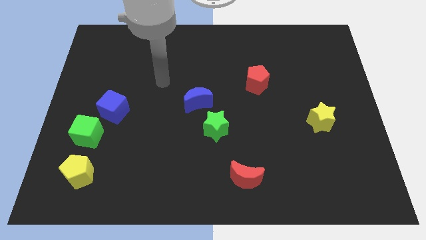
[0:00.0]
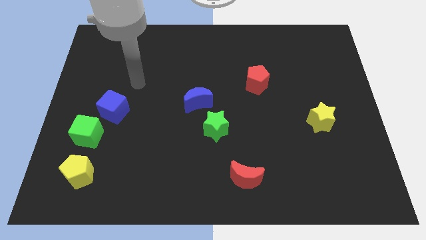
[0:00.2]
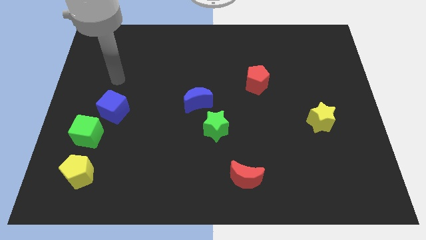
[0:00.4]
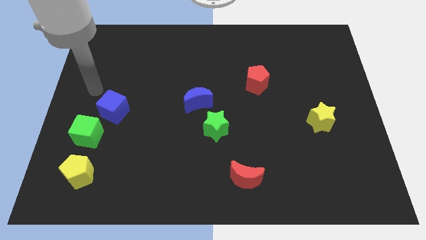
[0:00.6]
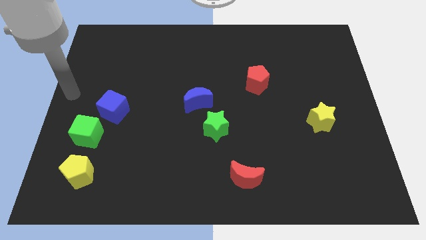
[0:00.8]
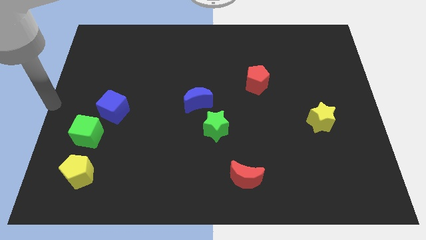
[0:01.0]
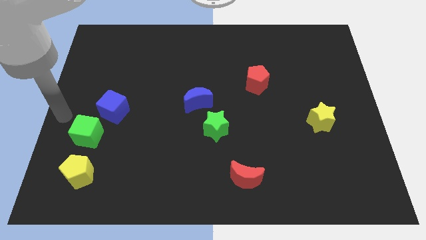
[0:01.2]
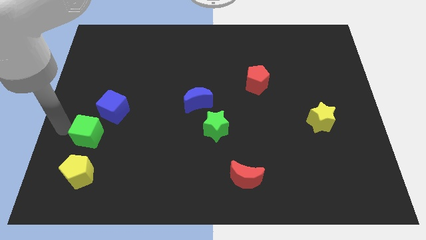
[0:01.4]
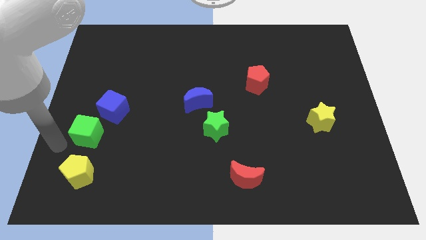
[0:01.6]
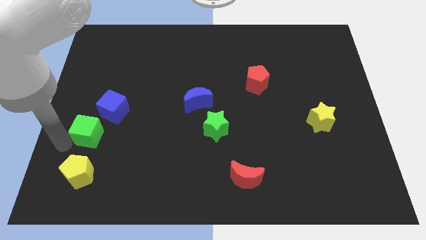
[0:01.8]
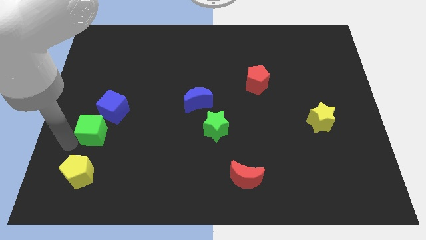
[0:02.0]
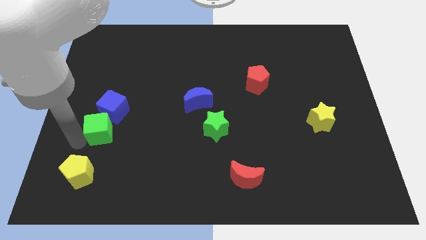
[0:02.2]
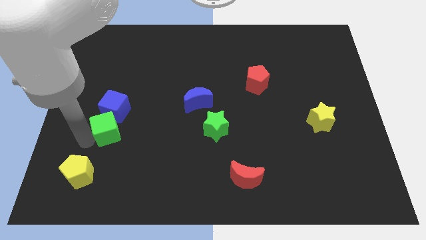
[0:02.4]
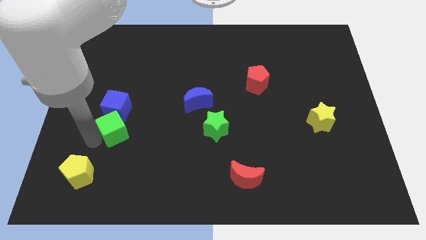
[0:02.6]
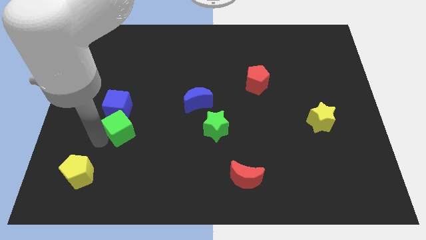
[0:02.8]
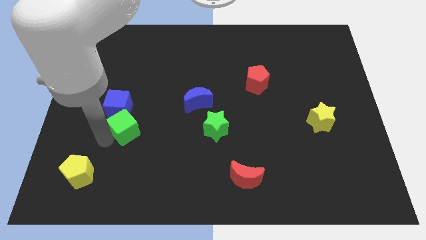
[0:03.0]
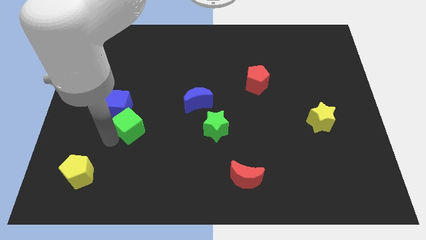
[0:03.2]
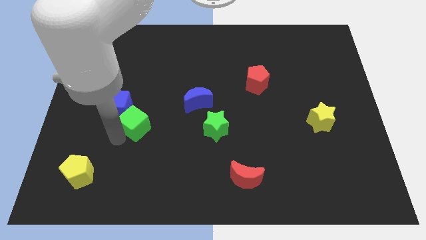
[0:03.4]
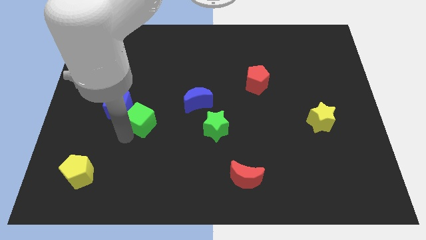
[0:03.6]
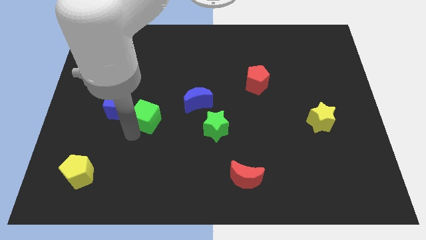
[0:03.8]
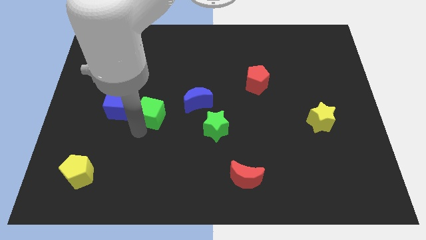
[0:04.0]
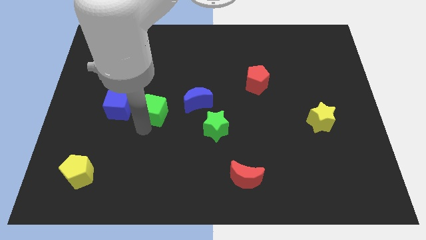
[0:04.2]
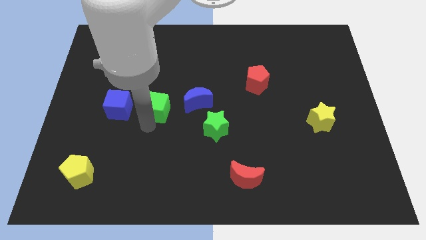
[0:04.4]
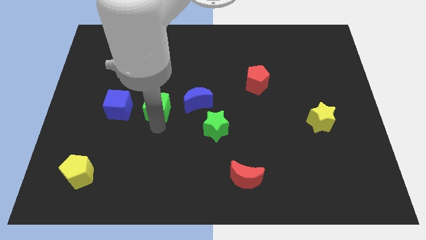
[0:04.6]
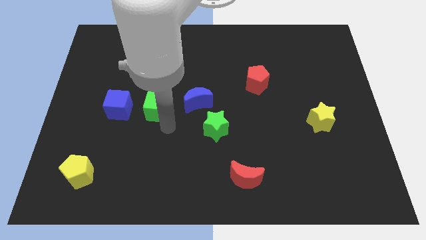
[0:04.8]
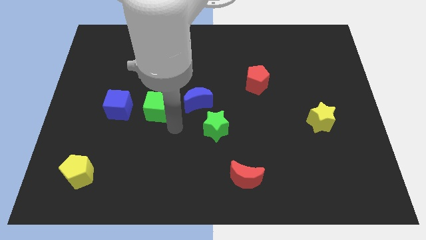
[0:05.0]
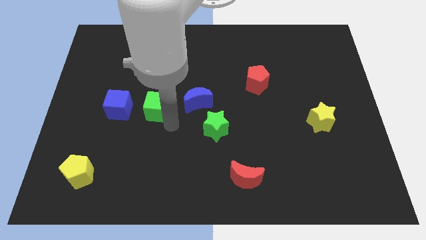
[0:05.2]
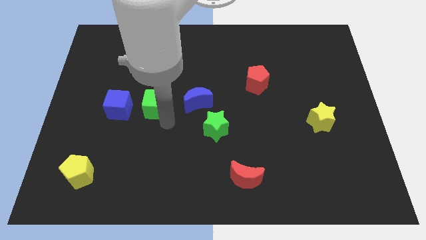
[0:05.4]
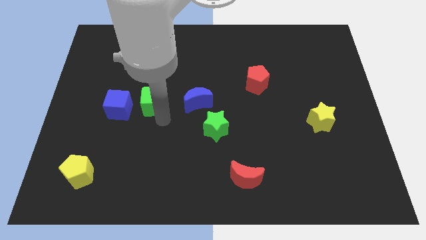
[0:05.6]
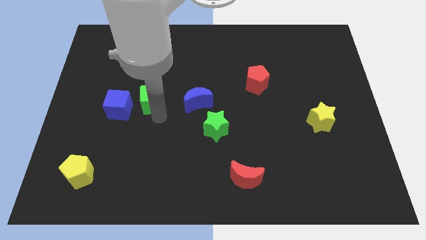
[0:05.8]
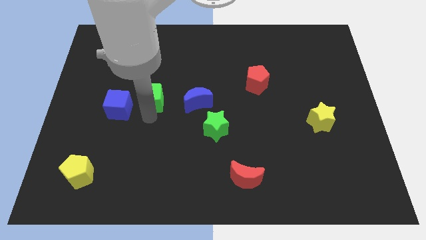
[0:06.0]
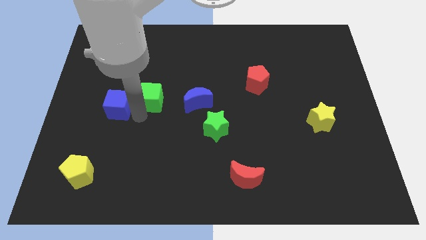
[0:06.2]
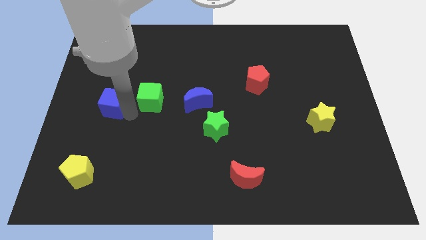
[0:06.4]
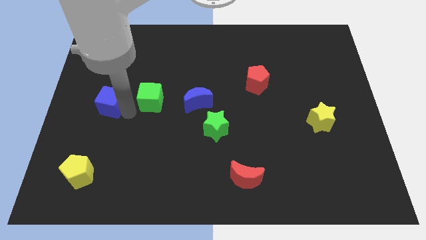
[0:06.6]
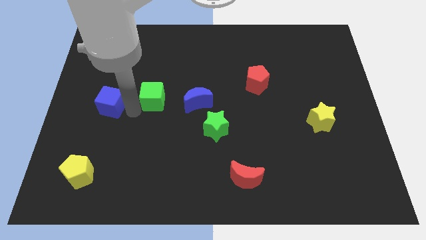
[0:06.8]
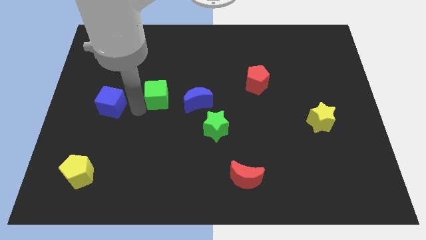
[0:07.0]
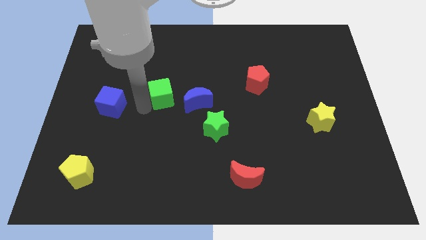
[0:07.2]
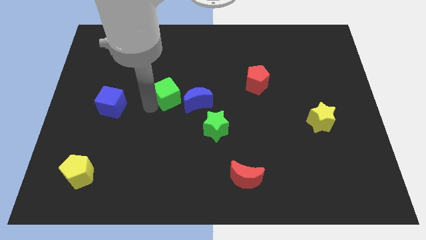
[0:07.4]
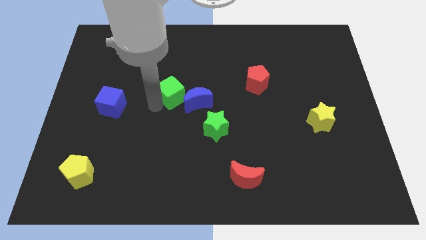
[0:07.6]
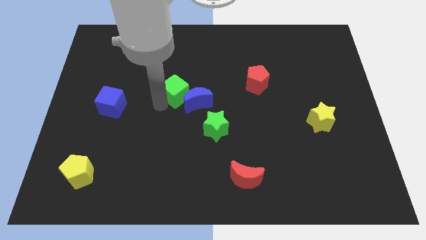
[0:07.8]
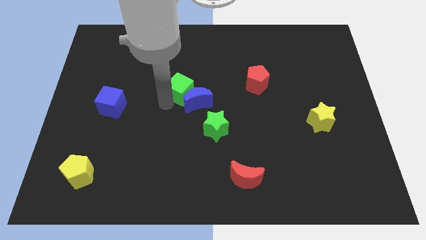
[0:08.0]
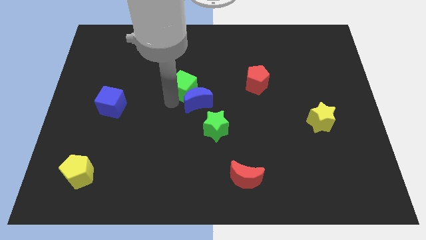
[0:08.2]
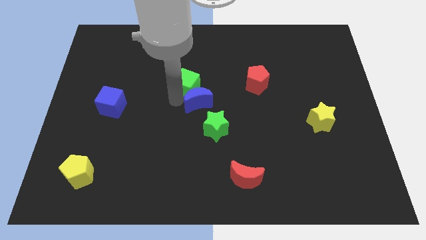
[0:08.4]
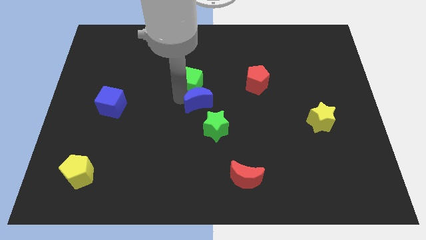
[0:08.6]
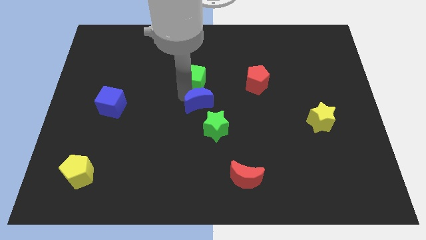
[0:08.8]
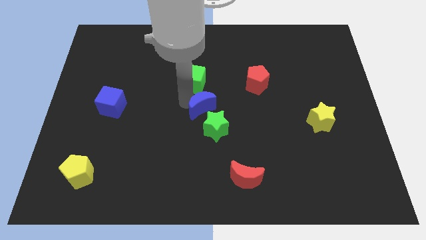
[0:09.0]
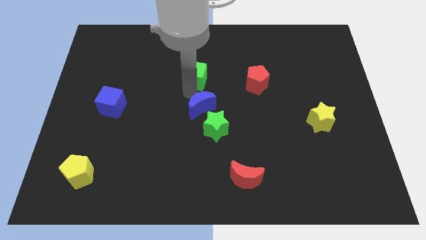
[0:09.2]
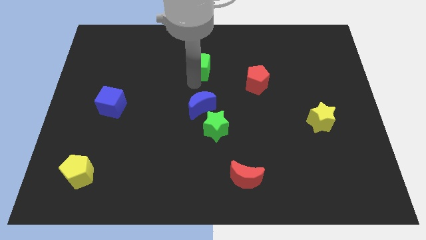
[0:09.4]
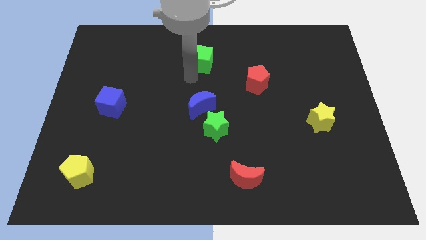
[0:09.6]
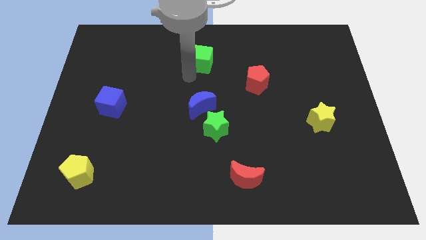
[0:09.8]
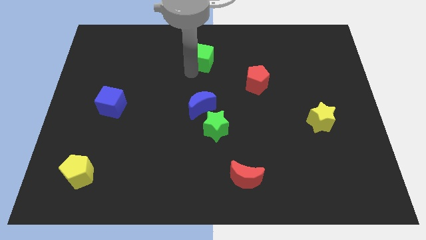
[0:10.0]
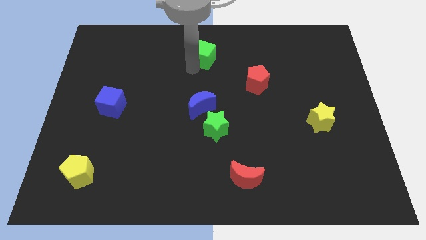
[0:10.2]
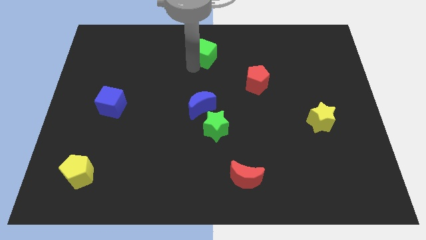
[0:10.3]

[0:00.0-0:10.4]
slide the green cube to the top side

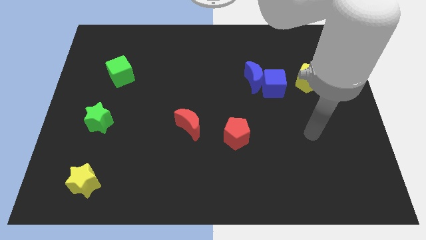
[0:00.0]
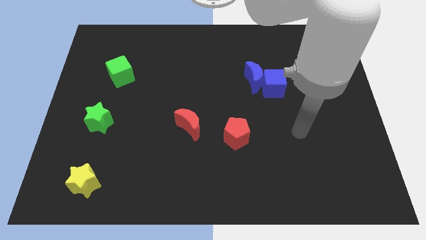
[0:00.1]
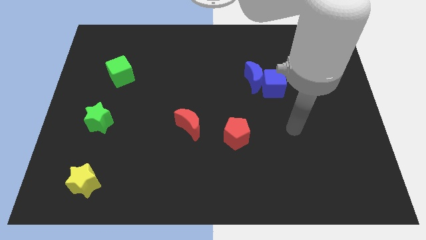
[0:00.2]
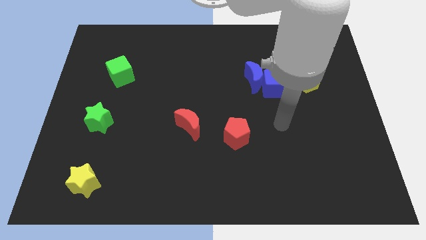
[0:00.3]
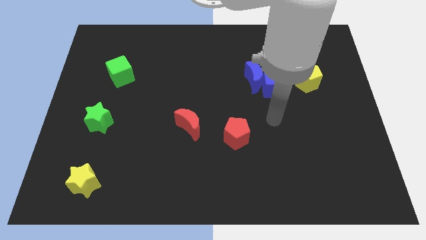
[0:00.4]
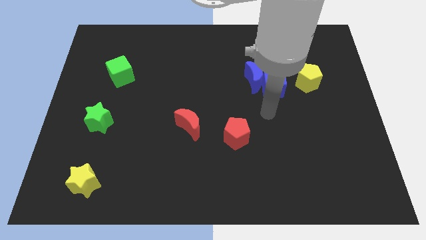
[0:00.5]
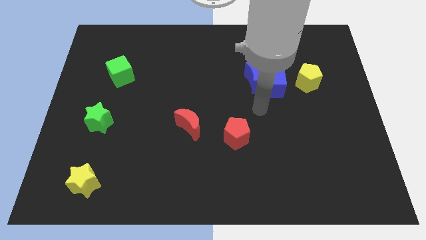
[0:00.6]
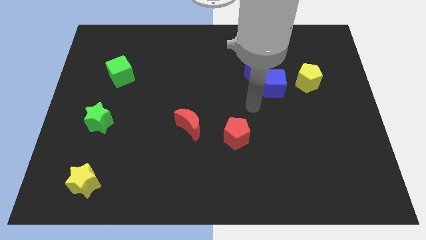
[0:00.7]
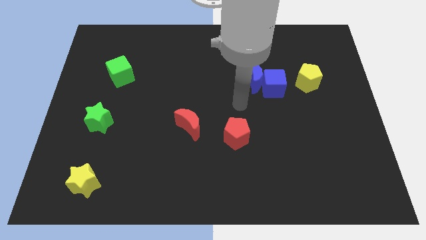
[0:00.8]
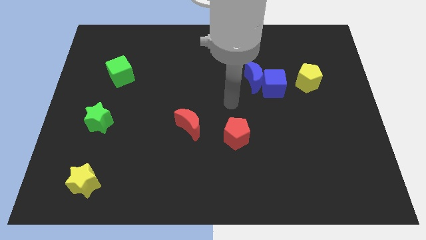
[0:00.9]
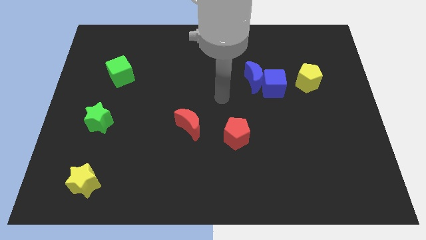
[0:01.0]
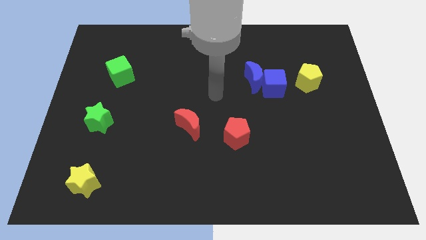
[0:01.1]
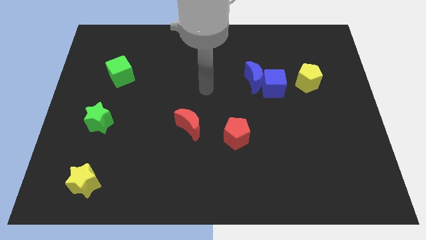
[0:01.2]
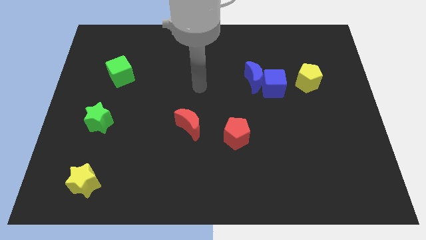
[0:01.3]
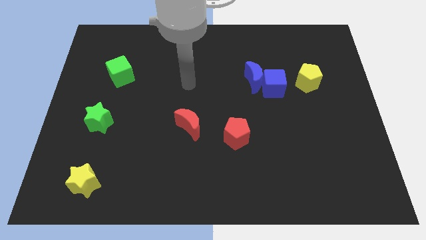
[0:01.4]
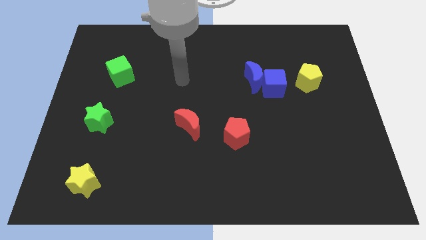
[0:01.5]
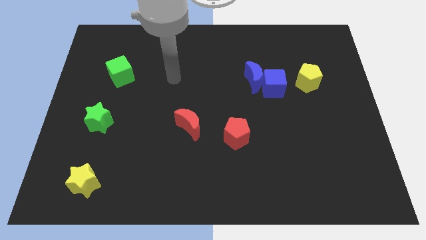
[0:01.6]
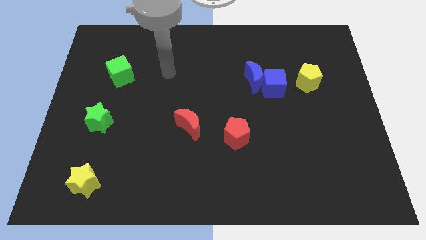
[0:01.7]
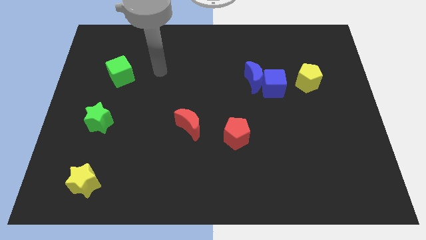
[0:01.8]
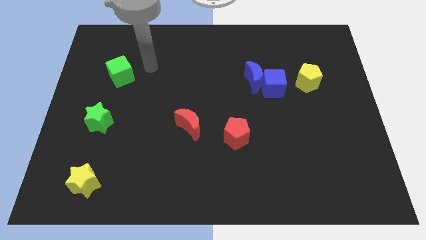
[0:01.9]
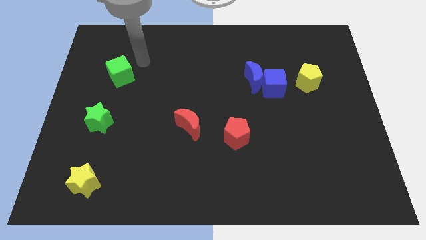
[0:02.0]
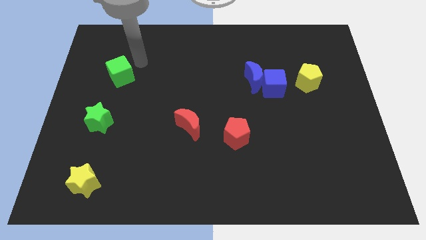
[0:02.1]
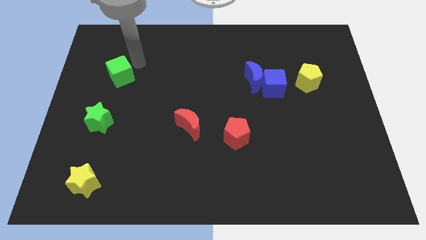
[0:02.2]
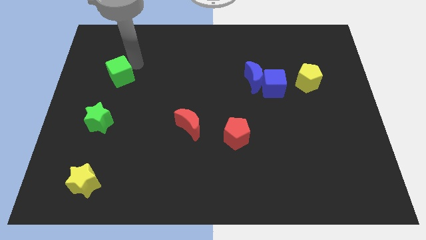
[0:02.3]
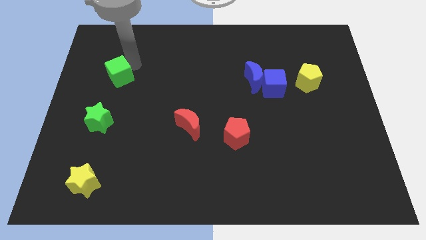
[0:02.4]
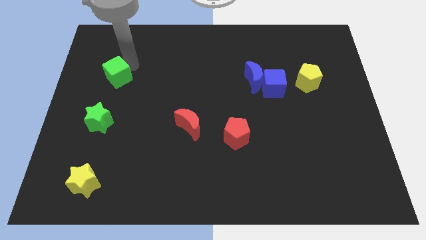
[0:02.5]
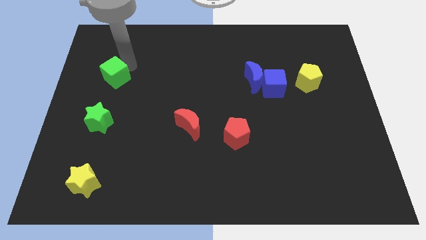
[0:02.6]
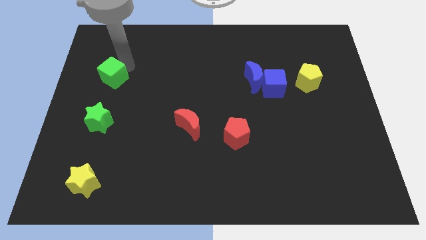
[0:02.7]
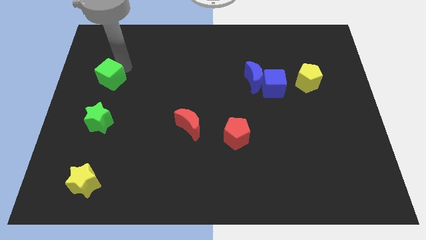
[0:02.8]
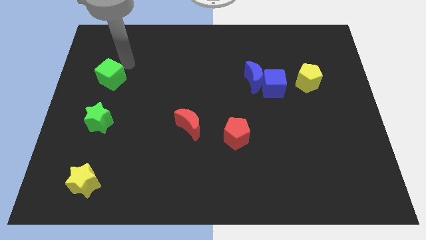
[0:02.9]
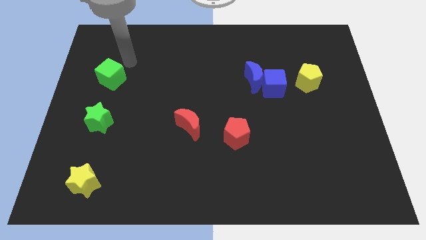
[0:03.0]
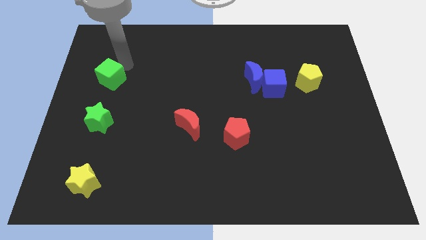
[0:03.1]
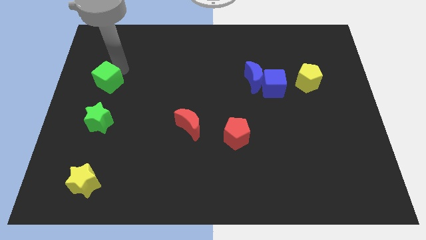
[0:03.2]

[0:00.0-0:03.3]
move the green cube to the left side of the board
